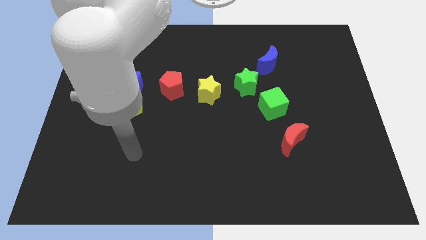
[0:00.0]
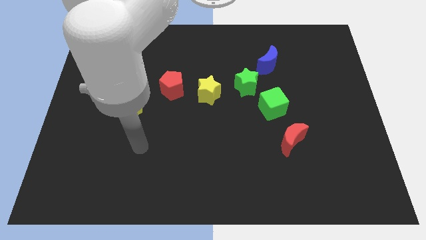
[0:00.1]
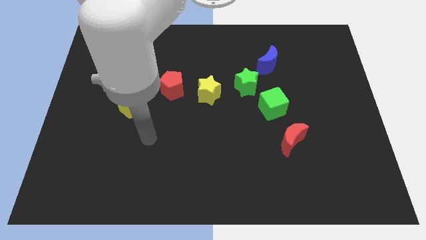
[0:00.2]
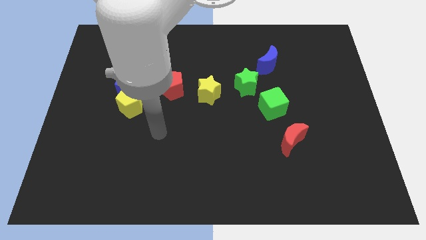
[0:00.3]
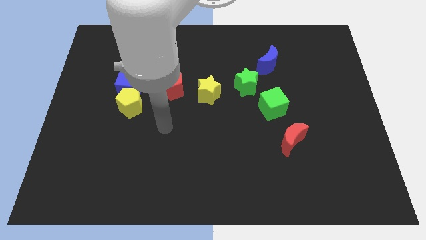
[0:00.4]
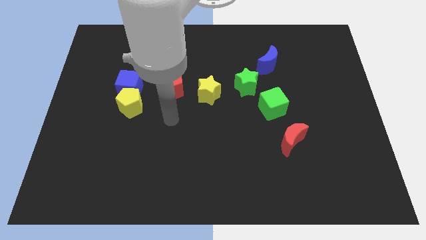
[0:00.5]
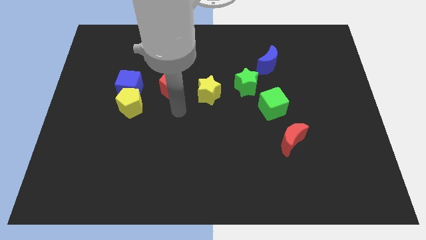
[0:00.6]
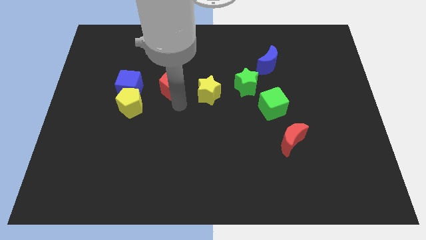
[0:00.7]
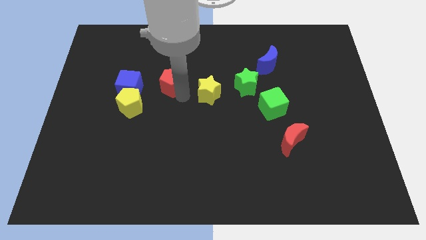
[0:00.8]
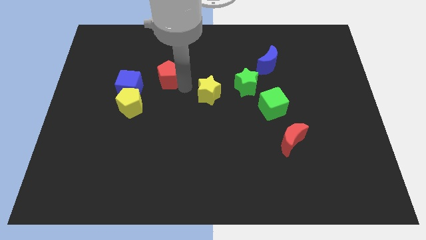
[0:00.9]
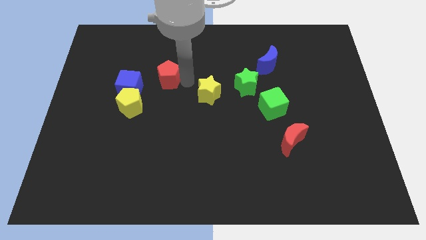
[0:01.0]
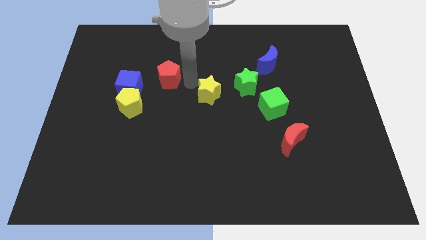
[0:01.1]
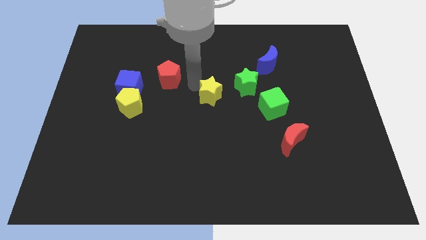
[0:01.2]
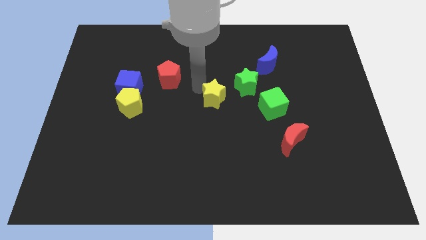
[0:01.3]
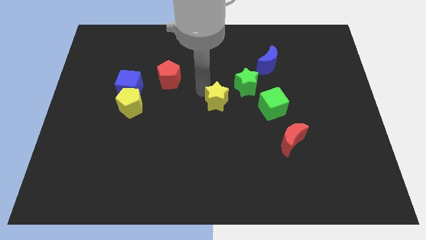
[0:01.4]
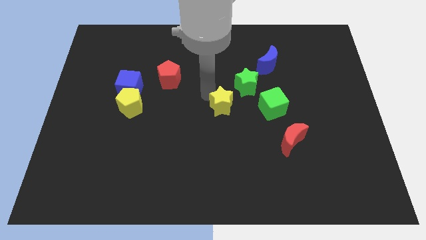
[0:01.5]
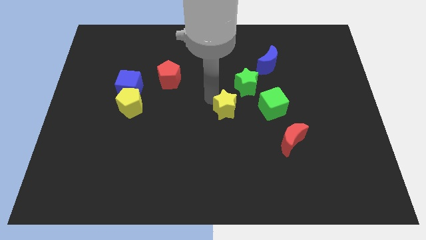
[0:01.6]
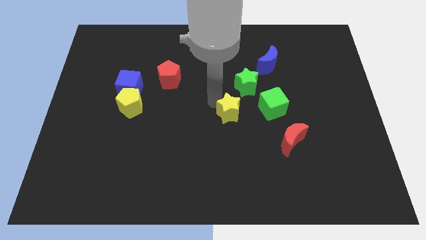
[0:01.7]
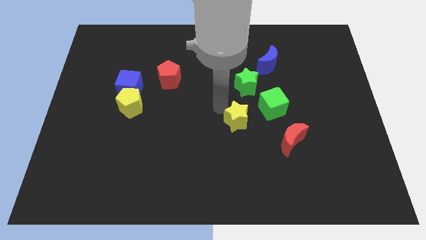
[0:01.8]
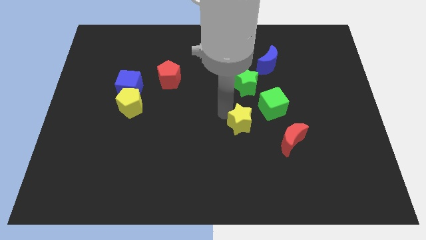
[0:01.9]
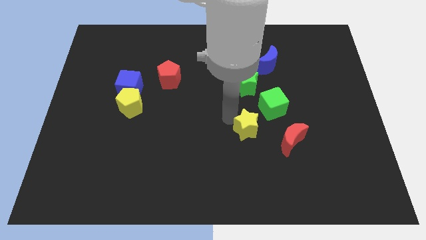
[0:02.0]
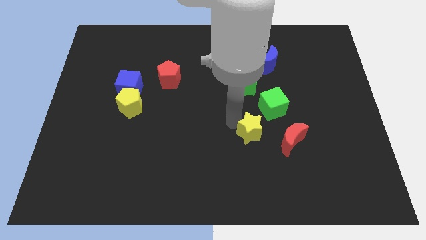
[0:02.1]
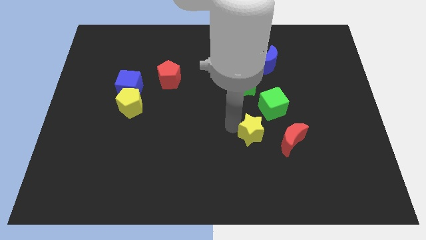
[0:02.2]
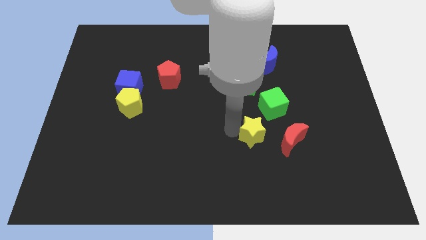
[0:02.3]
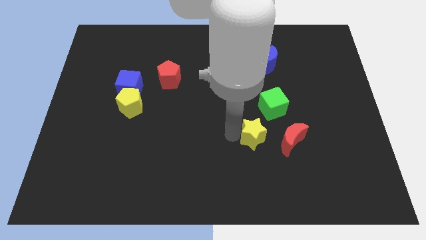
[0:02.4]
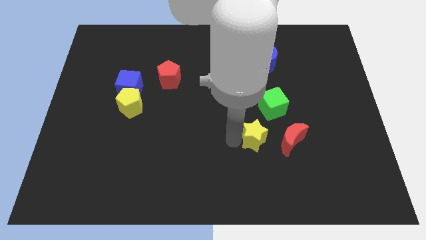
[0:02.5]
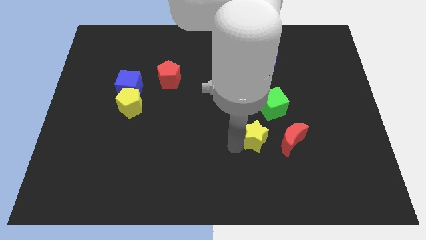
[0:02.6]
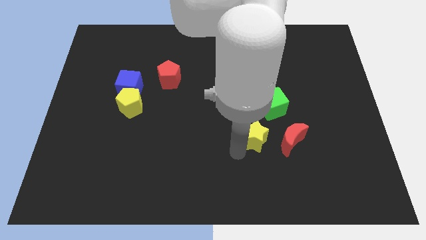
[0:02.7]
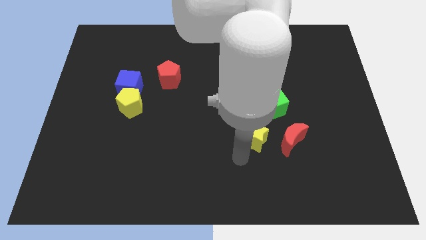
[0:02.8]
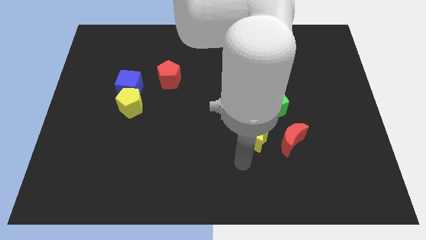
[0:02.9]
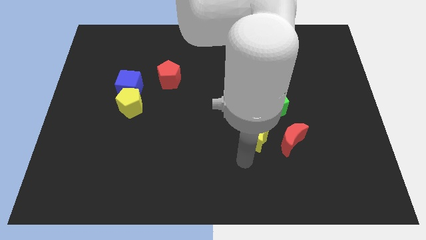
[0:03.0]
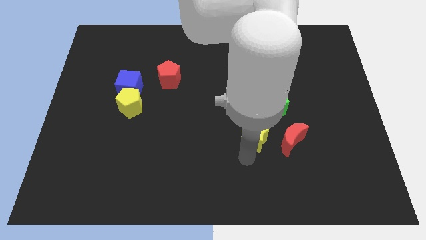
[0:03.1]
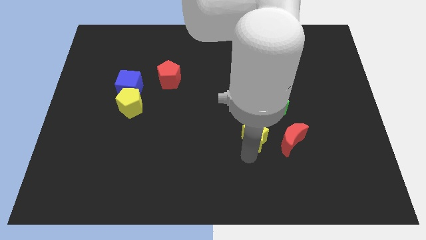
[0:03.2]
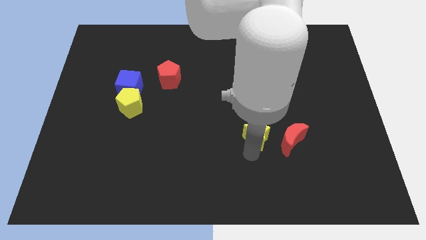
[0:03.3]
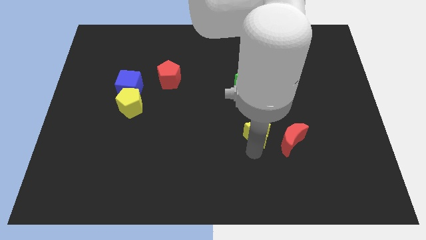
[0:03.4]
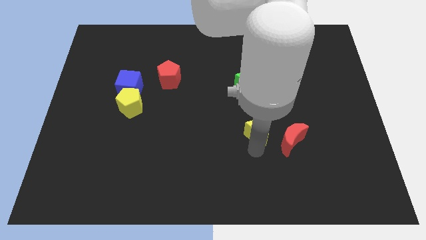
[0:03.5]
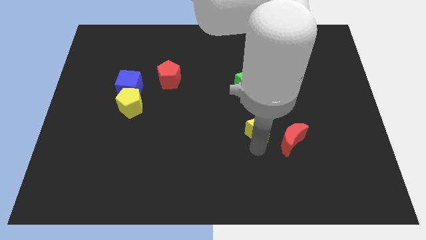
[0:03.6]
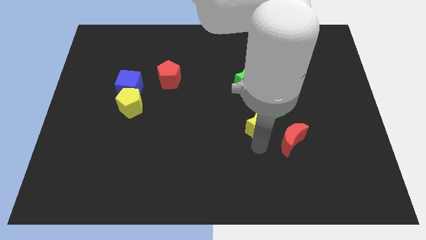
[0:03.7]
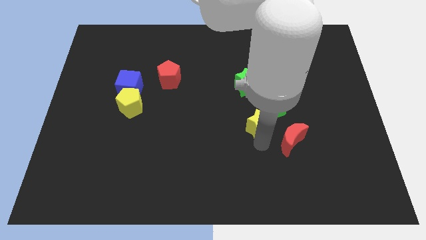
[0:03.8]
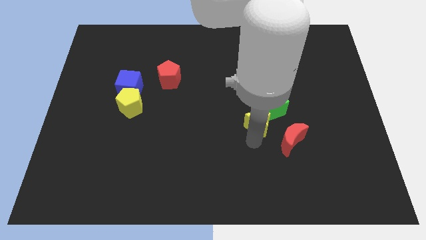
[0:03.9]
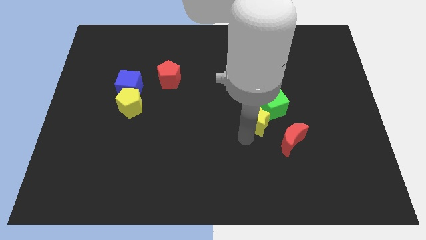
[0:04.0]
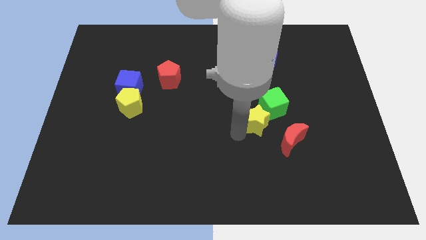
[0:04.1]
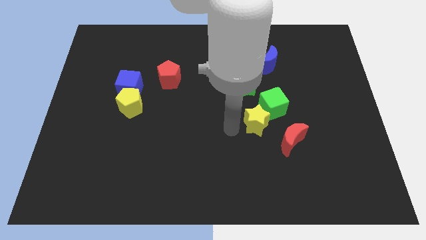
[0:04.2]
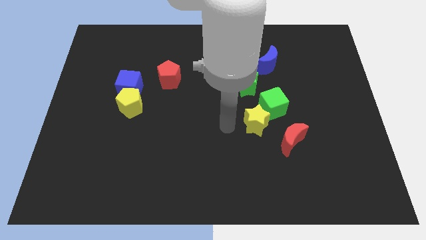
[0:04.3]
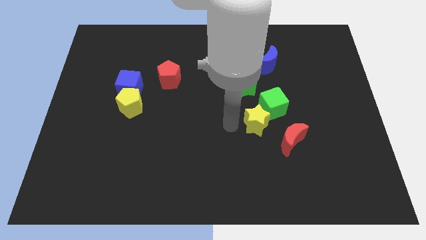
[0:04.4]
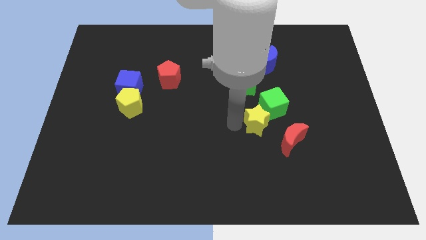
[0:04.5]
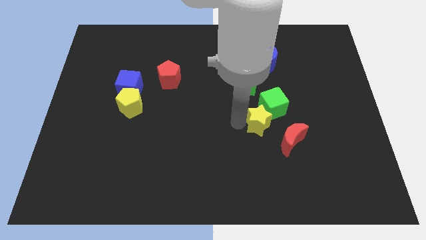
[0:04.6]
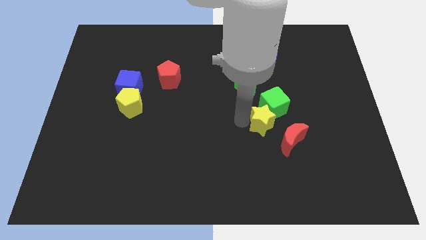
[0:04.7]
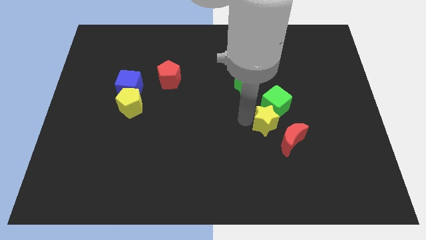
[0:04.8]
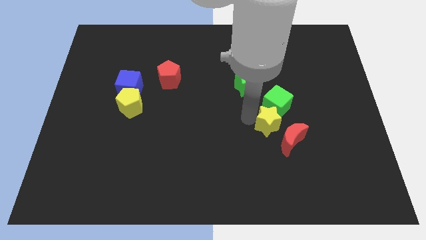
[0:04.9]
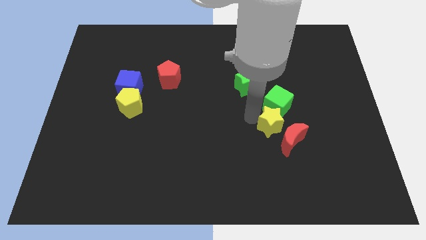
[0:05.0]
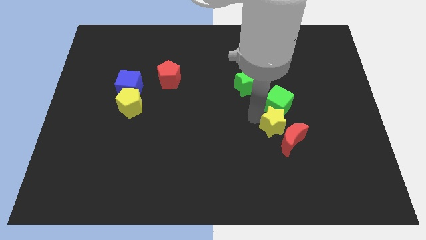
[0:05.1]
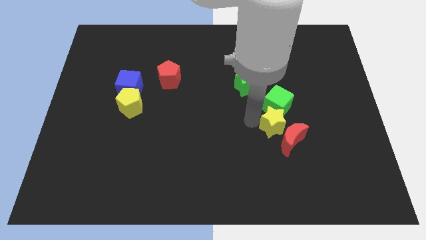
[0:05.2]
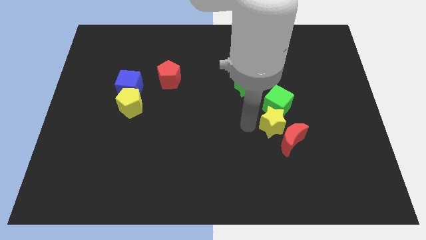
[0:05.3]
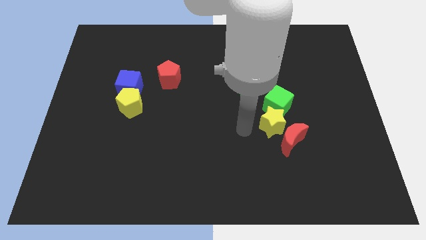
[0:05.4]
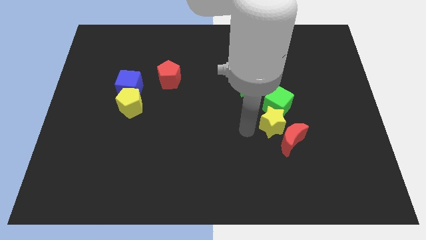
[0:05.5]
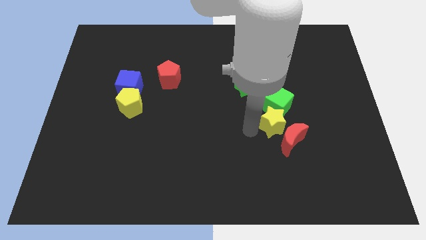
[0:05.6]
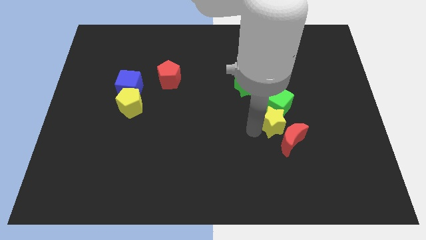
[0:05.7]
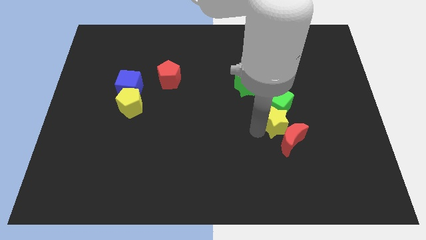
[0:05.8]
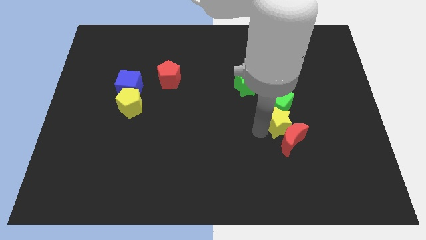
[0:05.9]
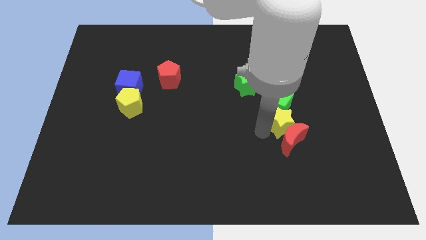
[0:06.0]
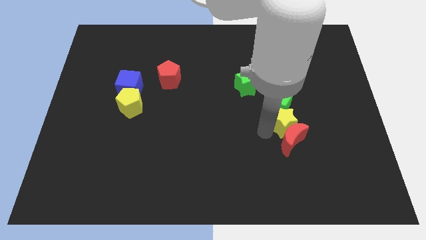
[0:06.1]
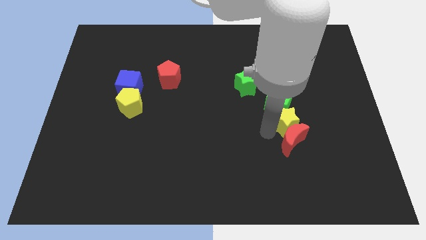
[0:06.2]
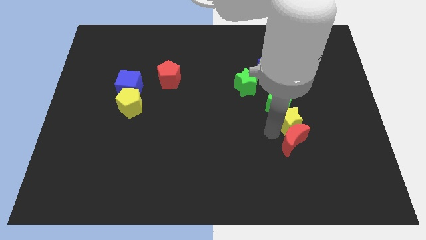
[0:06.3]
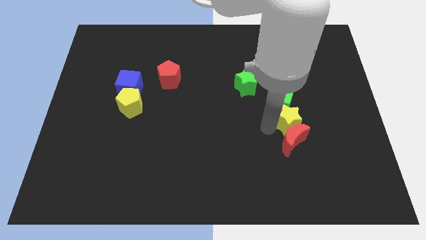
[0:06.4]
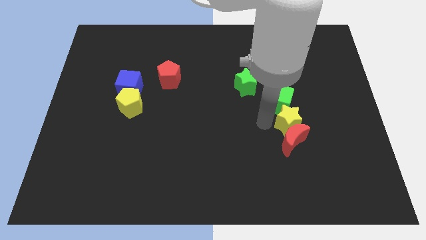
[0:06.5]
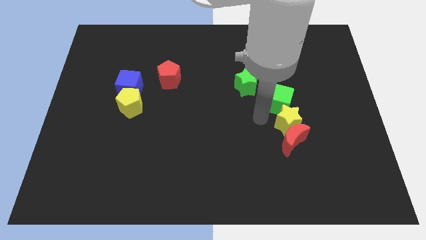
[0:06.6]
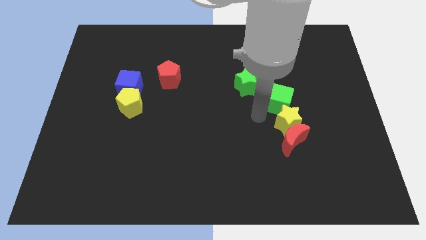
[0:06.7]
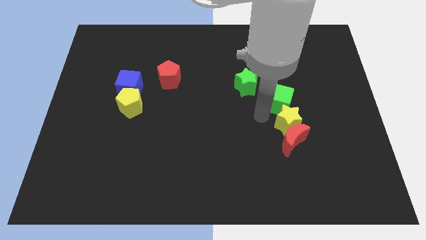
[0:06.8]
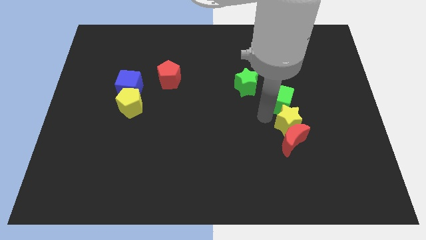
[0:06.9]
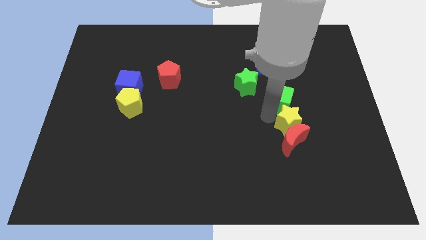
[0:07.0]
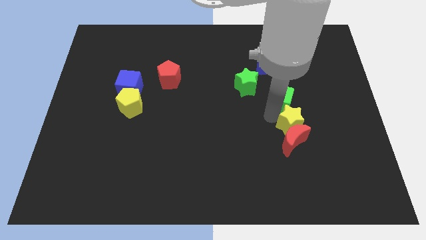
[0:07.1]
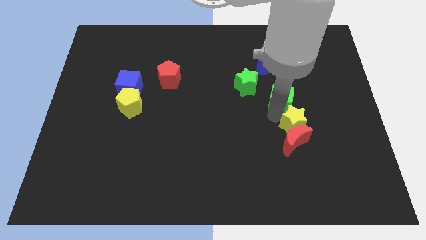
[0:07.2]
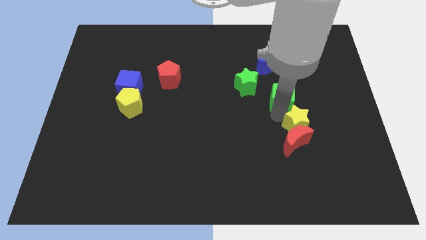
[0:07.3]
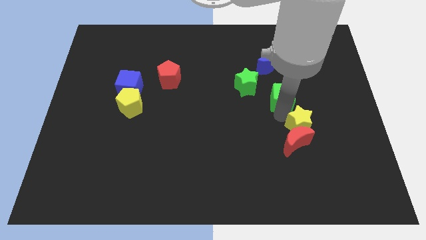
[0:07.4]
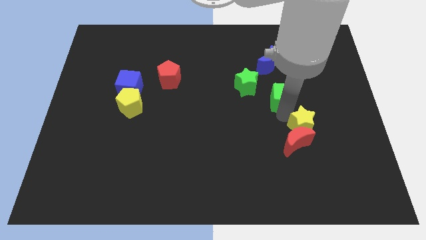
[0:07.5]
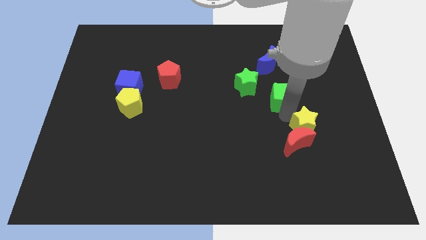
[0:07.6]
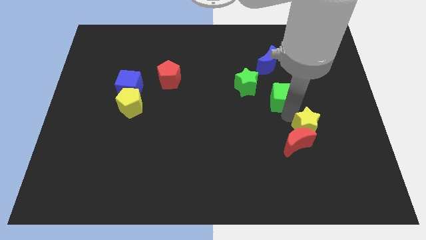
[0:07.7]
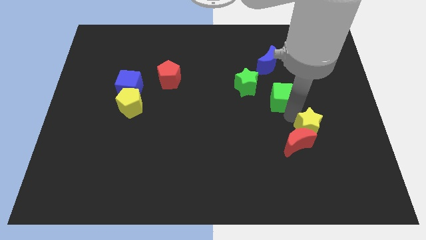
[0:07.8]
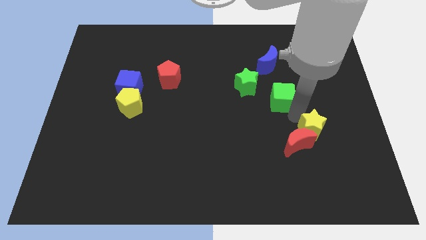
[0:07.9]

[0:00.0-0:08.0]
slide the yellow star right of the red moon
